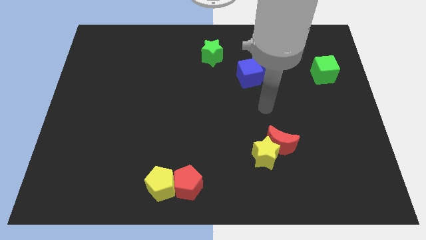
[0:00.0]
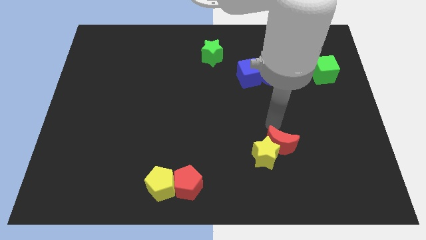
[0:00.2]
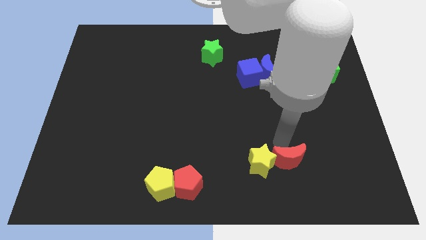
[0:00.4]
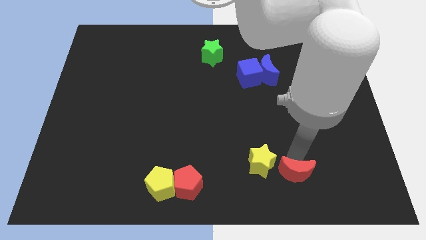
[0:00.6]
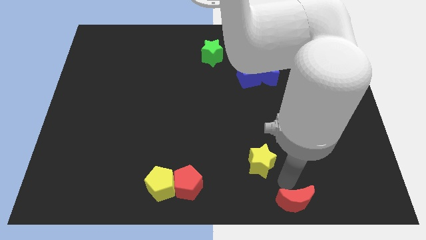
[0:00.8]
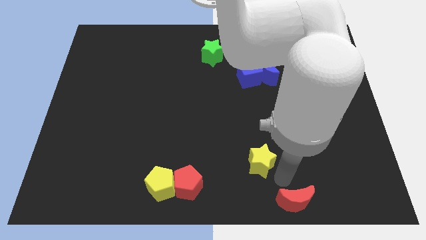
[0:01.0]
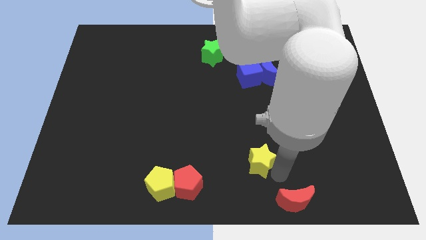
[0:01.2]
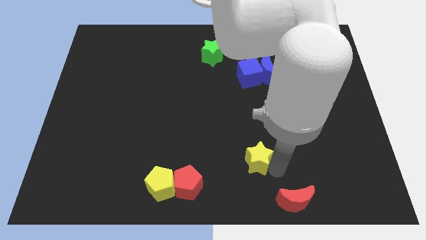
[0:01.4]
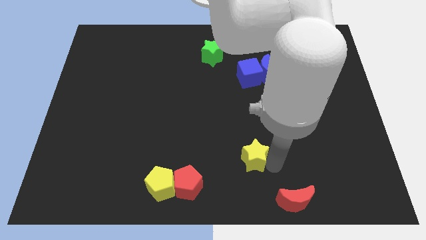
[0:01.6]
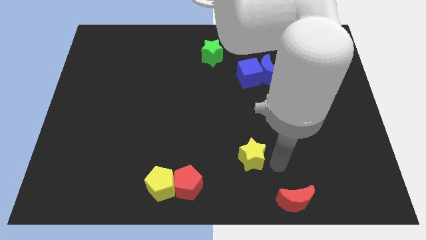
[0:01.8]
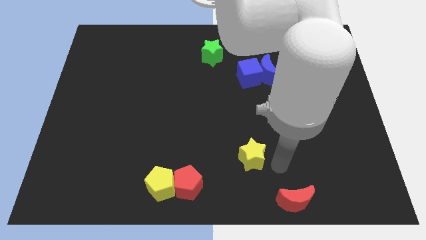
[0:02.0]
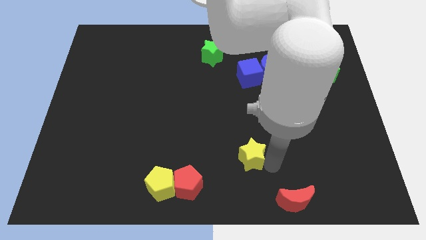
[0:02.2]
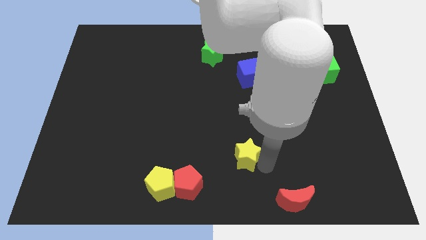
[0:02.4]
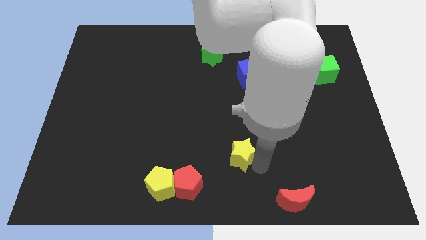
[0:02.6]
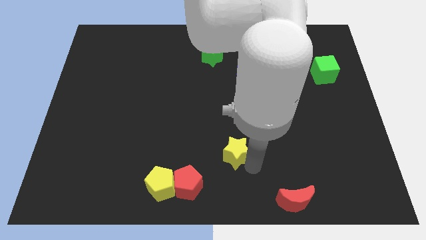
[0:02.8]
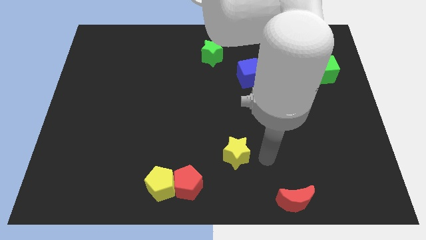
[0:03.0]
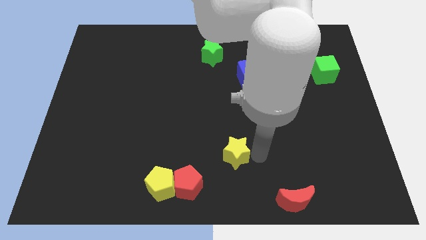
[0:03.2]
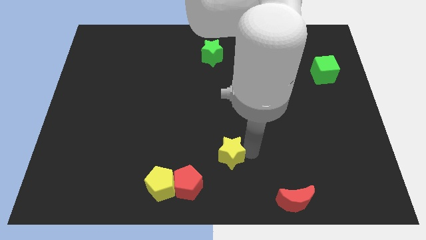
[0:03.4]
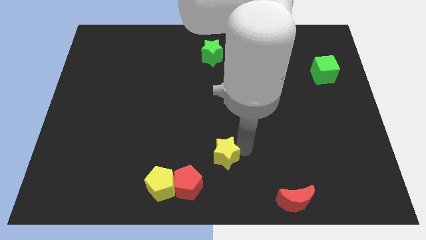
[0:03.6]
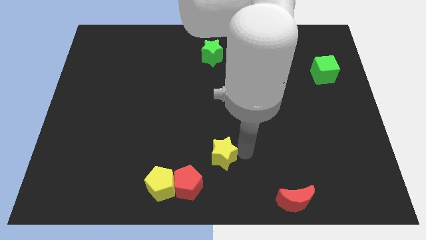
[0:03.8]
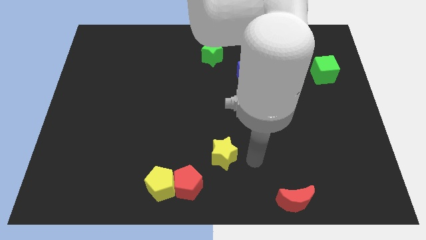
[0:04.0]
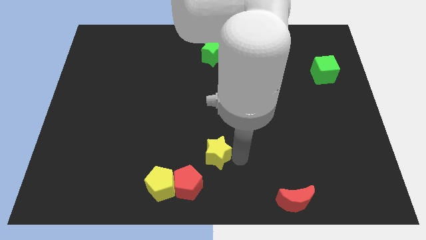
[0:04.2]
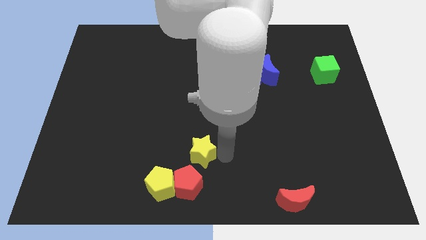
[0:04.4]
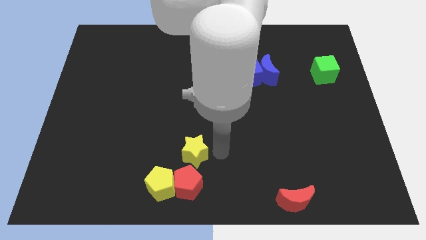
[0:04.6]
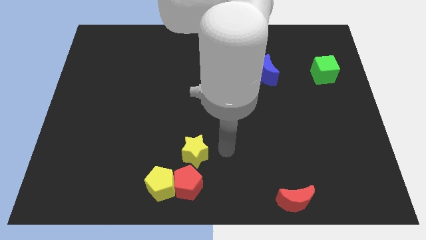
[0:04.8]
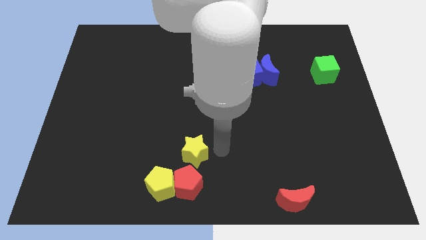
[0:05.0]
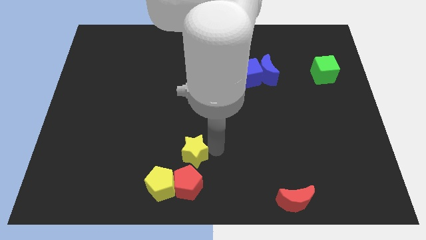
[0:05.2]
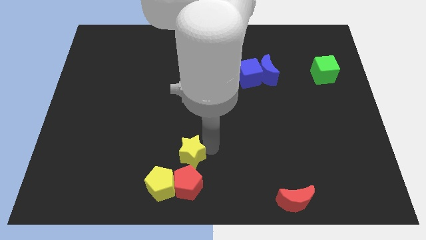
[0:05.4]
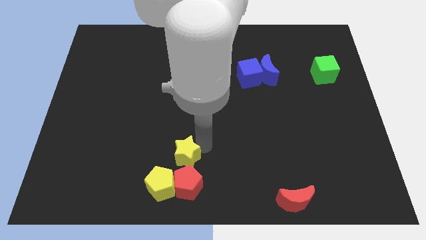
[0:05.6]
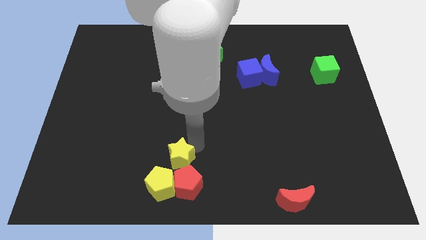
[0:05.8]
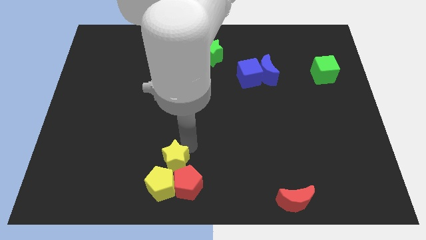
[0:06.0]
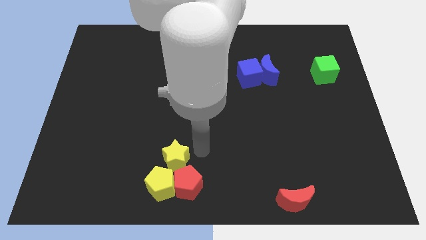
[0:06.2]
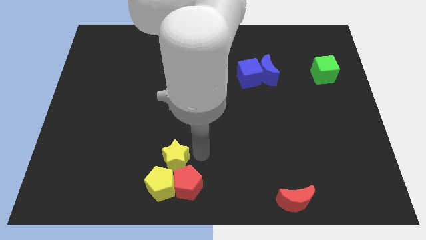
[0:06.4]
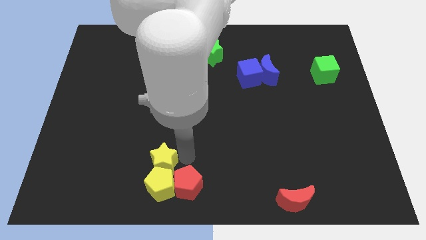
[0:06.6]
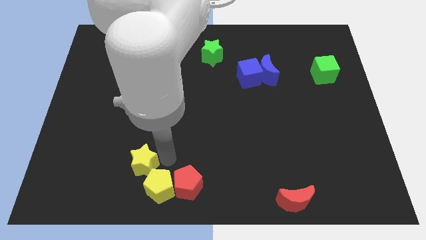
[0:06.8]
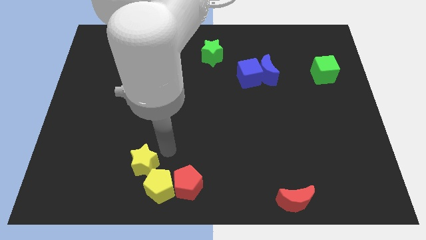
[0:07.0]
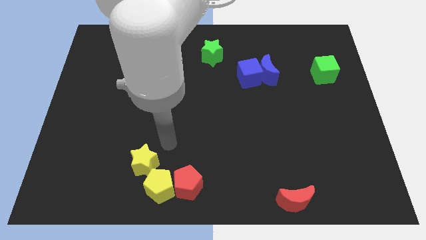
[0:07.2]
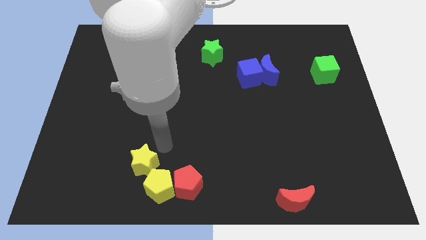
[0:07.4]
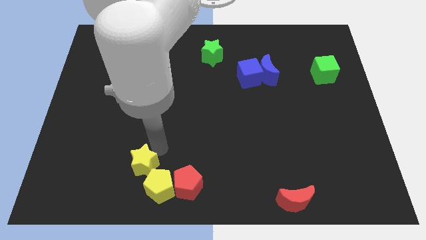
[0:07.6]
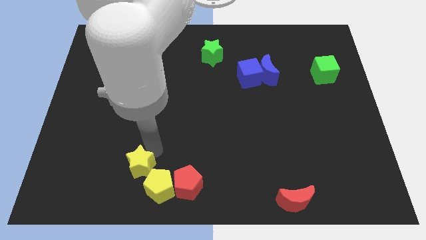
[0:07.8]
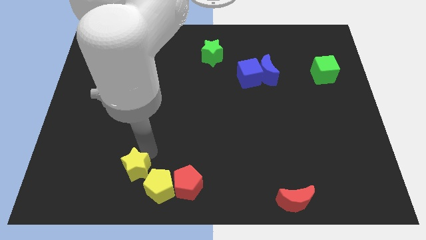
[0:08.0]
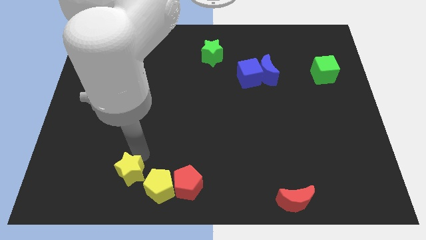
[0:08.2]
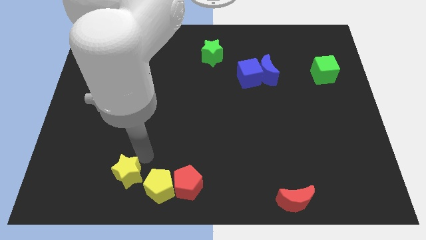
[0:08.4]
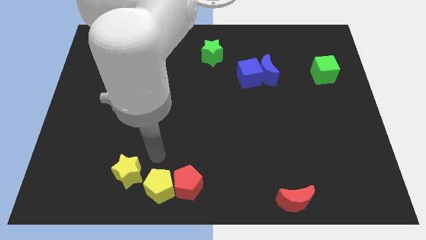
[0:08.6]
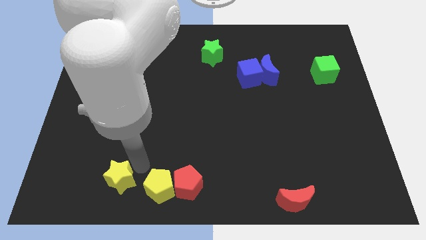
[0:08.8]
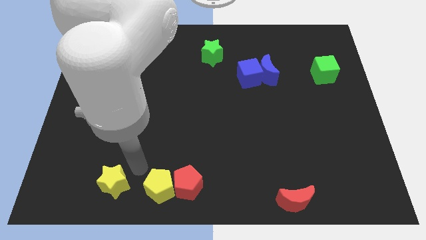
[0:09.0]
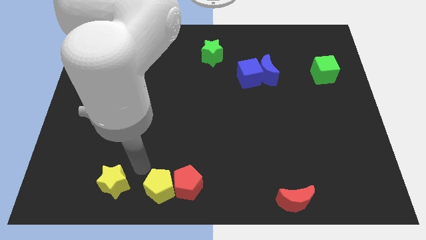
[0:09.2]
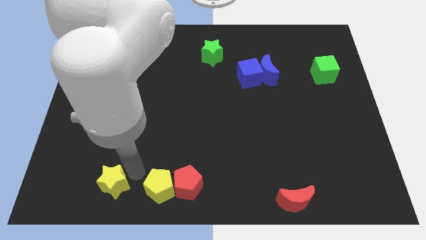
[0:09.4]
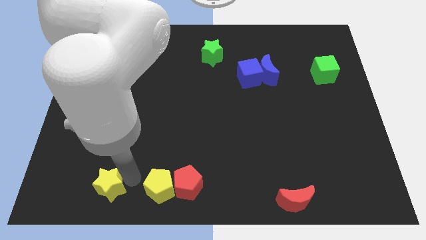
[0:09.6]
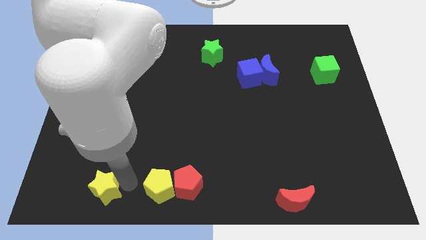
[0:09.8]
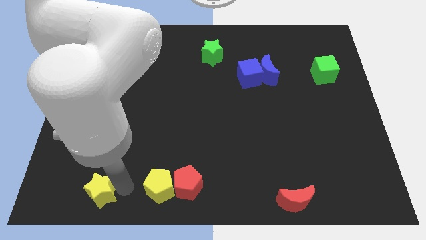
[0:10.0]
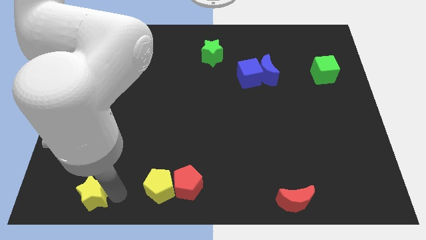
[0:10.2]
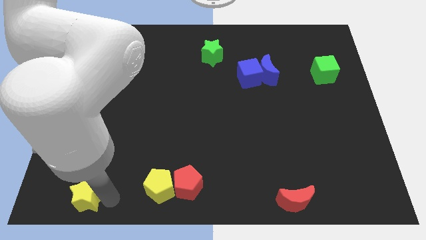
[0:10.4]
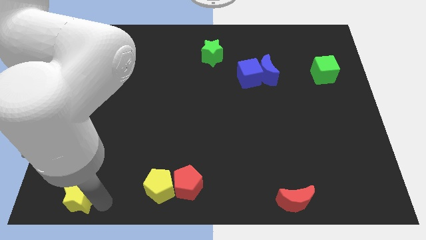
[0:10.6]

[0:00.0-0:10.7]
push the yellow star to the lower left corner

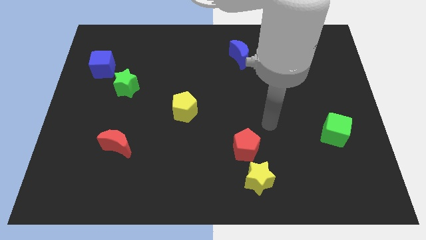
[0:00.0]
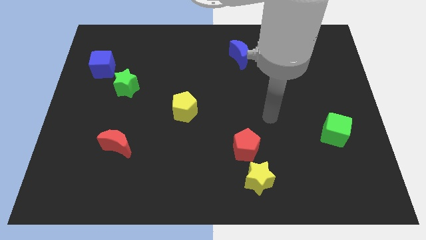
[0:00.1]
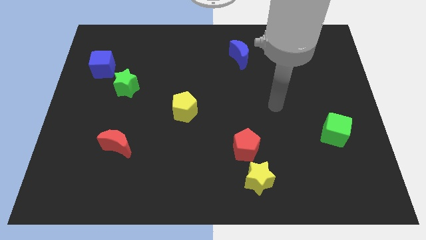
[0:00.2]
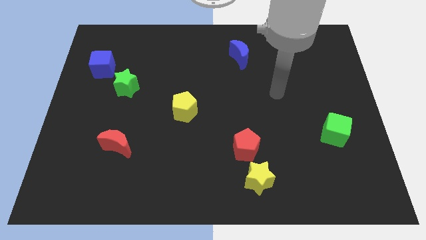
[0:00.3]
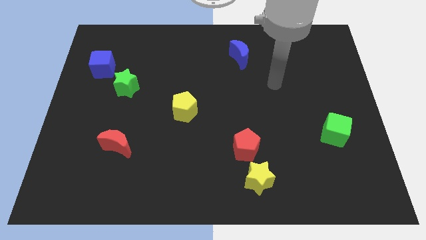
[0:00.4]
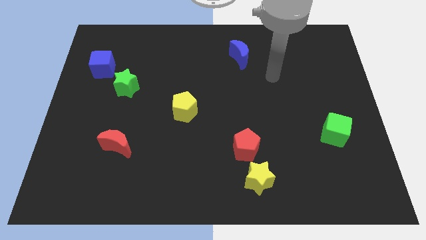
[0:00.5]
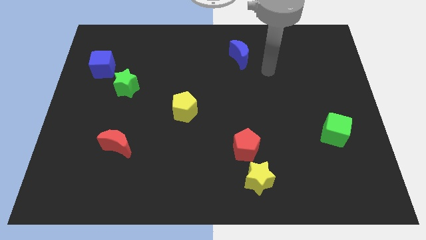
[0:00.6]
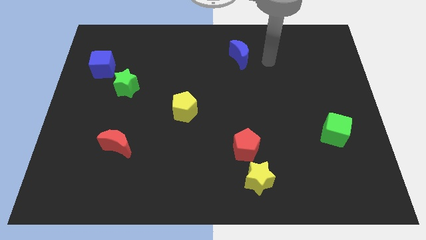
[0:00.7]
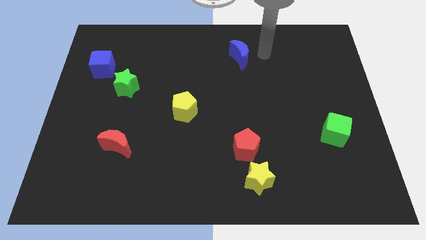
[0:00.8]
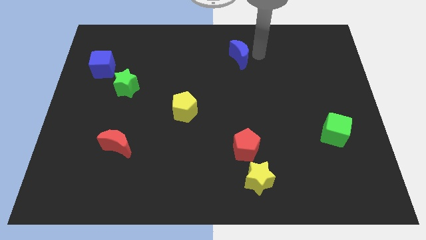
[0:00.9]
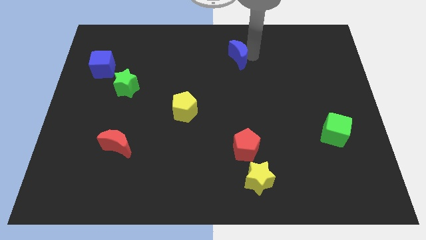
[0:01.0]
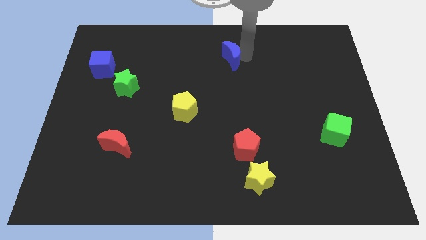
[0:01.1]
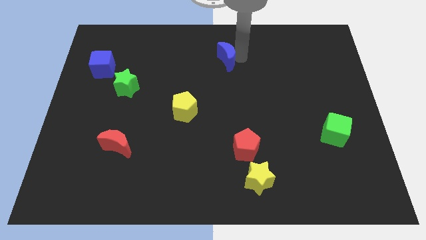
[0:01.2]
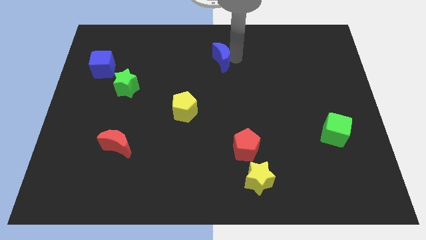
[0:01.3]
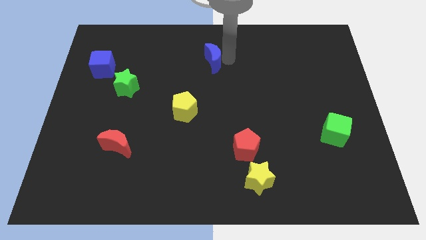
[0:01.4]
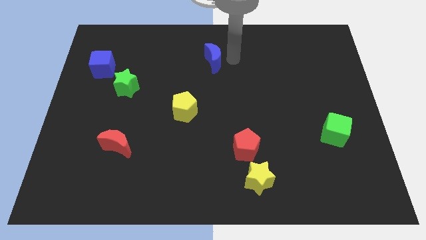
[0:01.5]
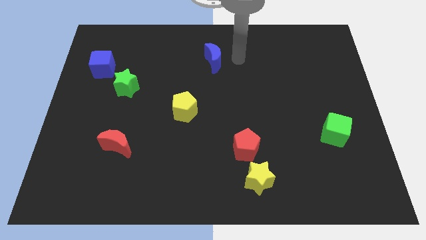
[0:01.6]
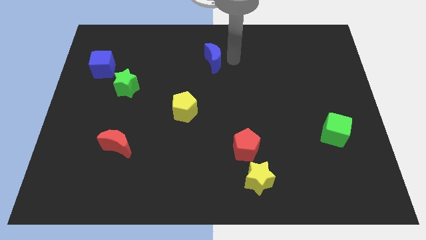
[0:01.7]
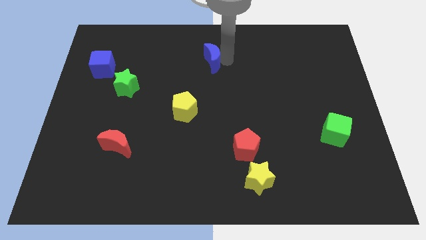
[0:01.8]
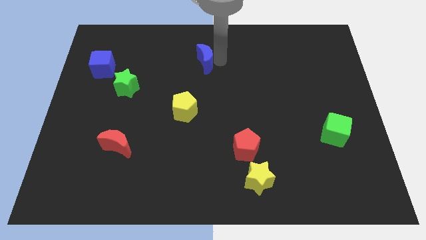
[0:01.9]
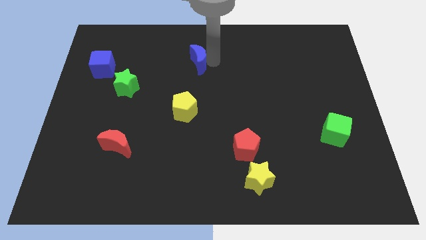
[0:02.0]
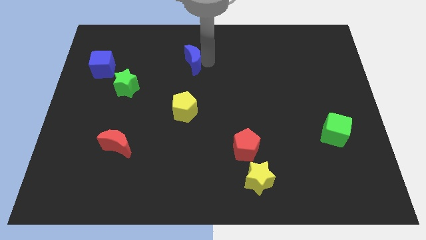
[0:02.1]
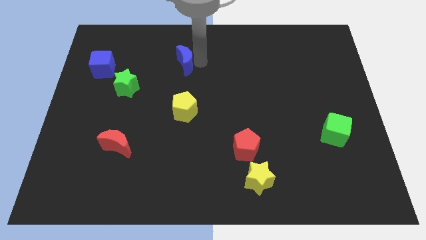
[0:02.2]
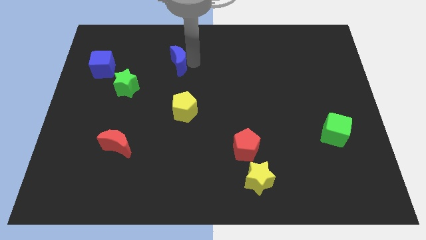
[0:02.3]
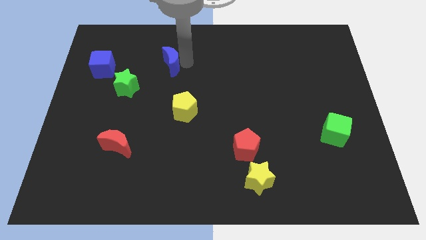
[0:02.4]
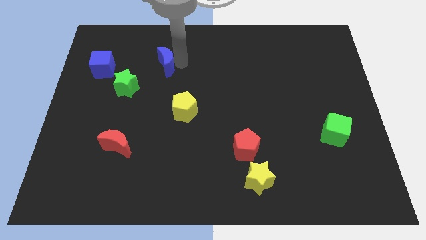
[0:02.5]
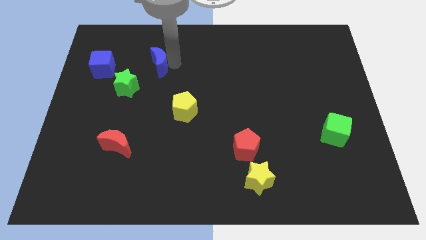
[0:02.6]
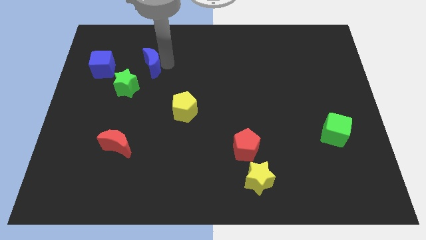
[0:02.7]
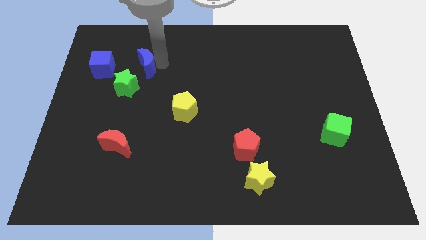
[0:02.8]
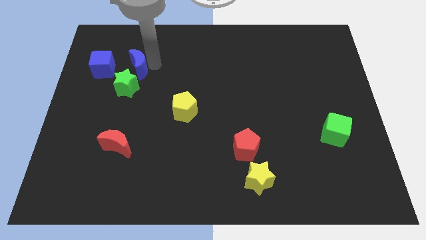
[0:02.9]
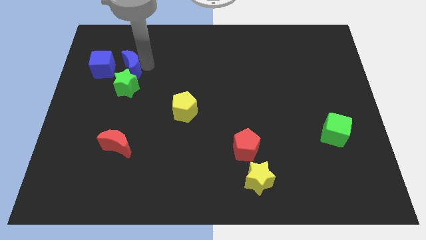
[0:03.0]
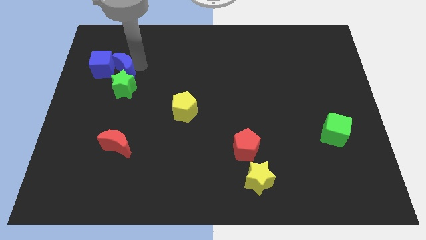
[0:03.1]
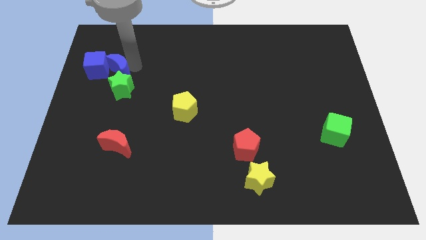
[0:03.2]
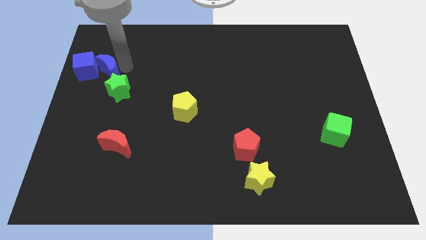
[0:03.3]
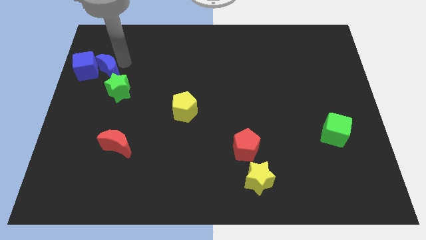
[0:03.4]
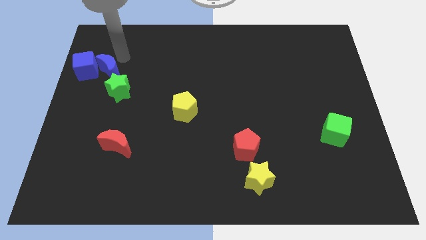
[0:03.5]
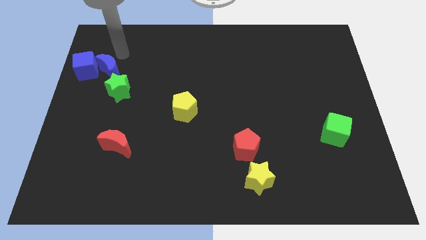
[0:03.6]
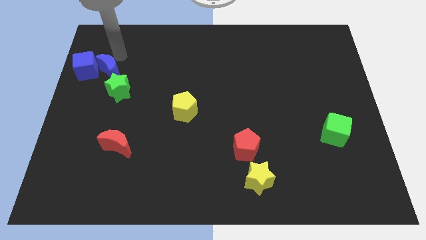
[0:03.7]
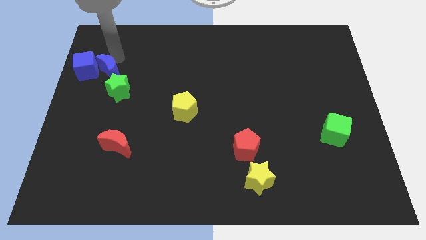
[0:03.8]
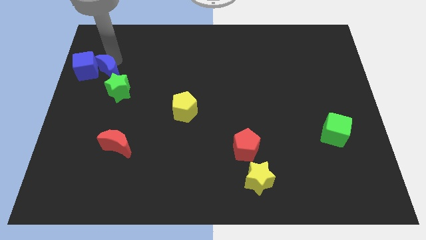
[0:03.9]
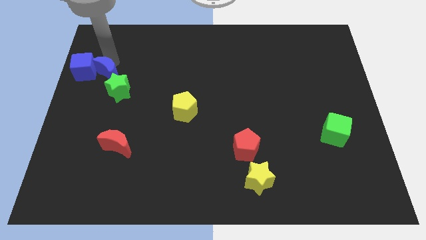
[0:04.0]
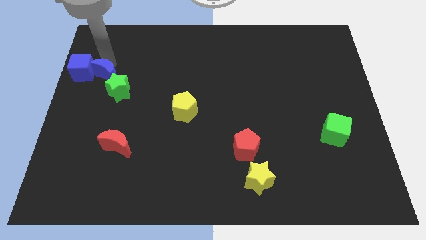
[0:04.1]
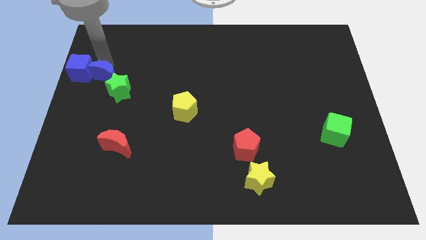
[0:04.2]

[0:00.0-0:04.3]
put the blue moon to the left side of the board
